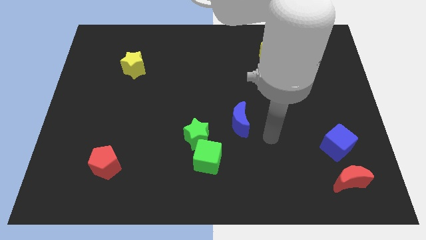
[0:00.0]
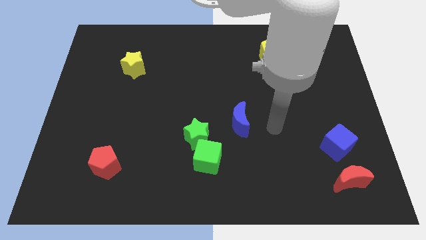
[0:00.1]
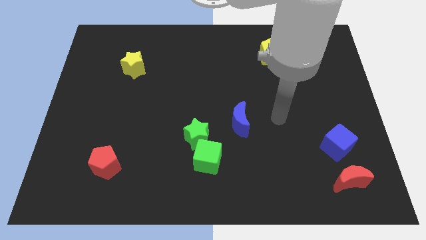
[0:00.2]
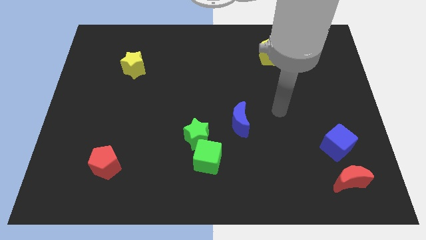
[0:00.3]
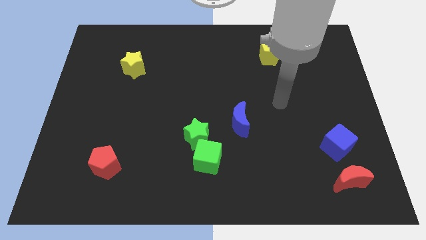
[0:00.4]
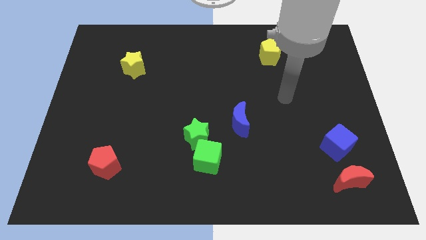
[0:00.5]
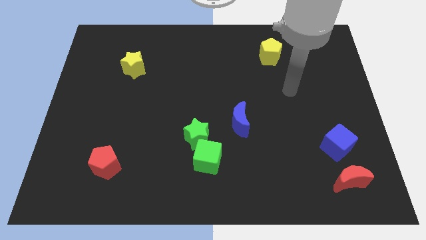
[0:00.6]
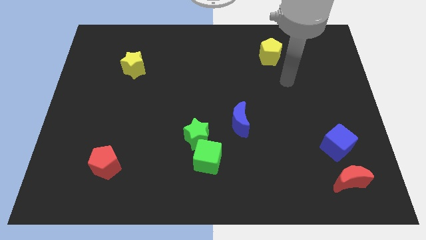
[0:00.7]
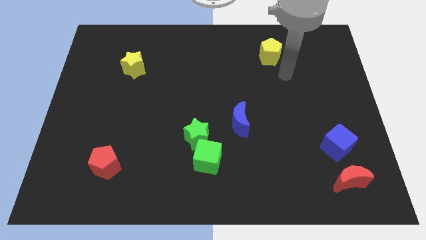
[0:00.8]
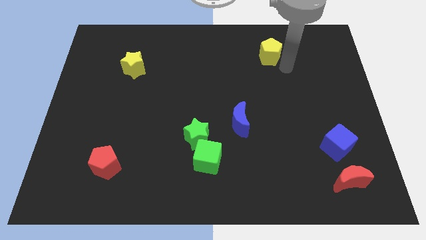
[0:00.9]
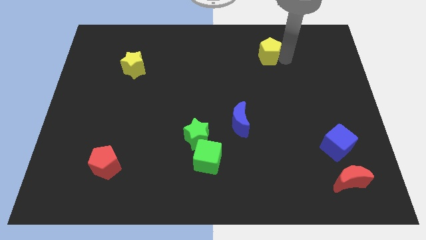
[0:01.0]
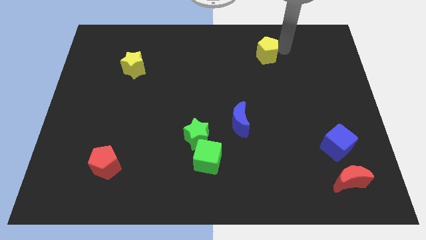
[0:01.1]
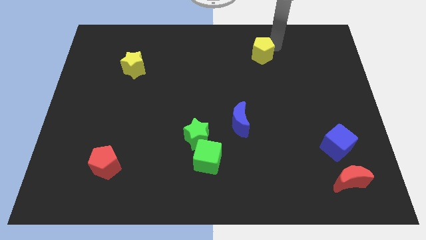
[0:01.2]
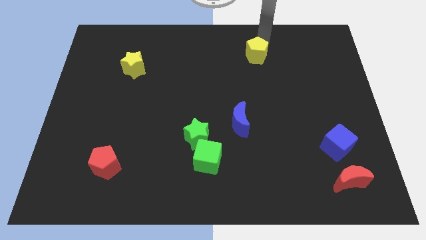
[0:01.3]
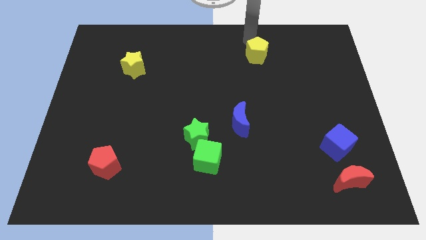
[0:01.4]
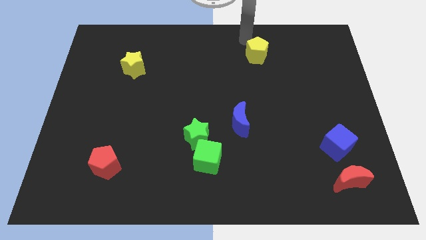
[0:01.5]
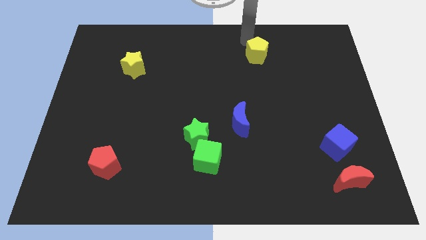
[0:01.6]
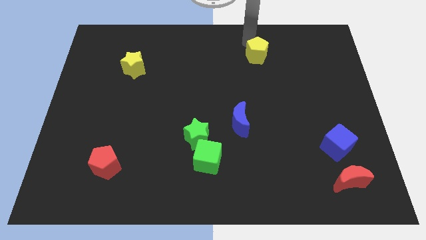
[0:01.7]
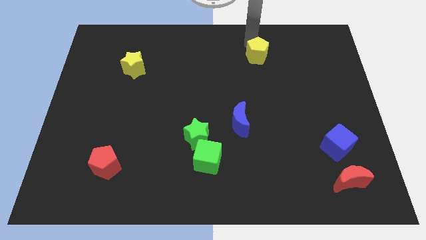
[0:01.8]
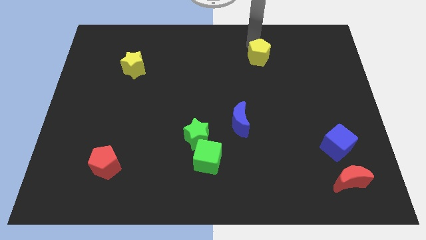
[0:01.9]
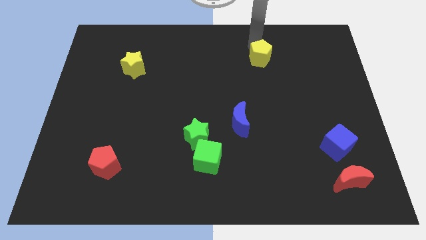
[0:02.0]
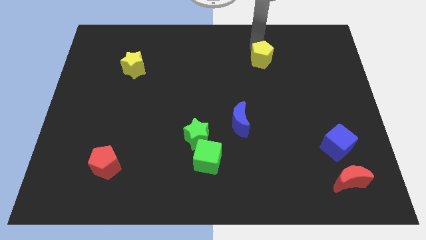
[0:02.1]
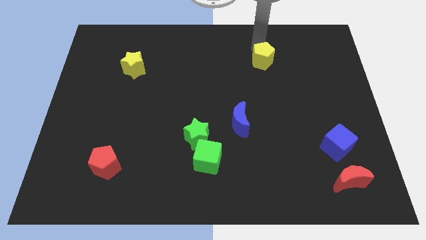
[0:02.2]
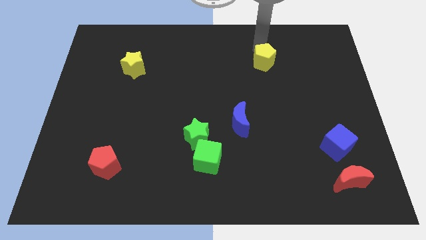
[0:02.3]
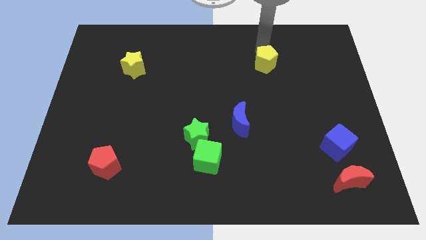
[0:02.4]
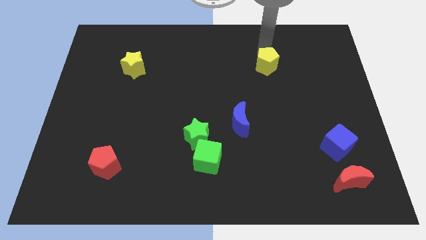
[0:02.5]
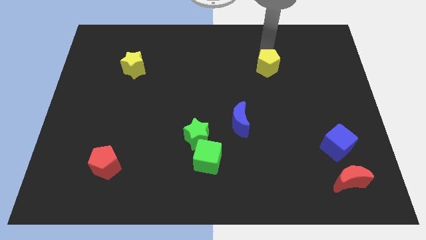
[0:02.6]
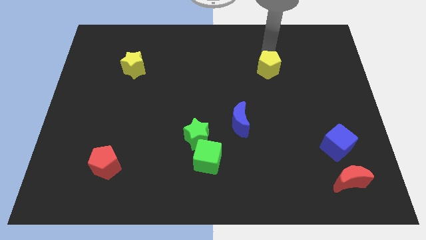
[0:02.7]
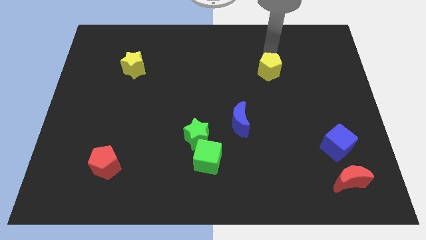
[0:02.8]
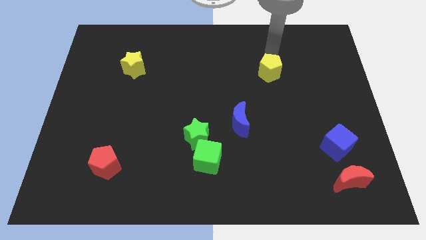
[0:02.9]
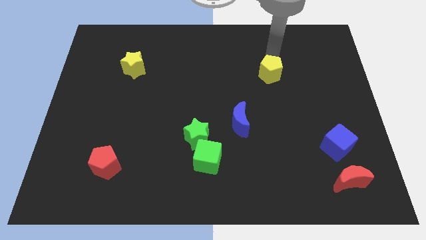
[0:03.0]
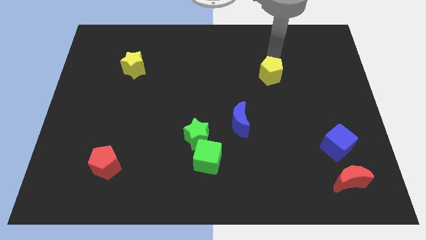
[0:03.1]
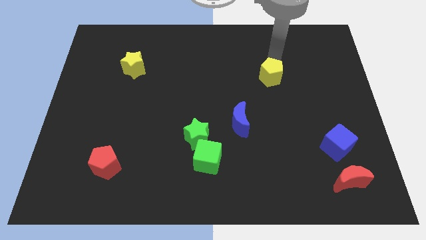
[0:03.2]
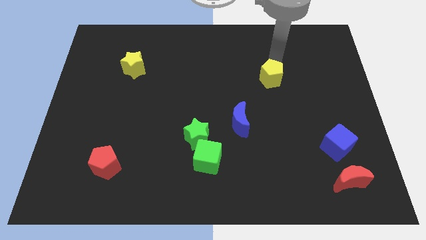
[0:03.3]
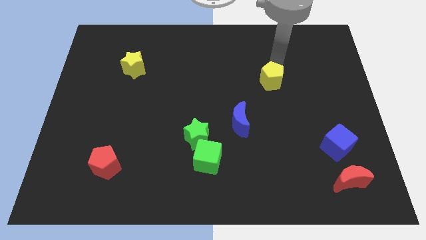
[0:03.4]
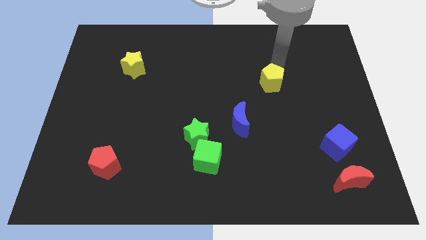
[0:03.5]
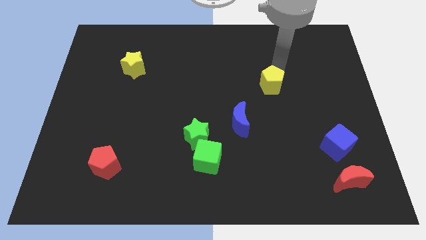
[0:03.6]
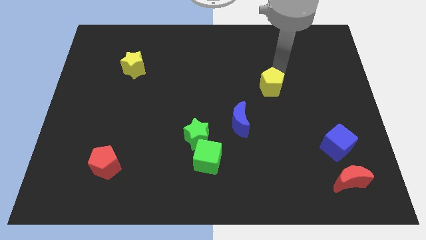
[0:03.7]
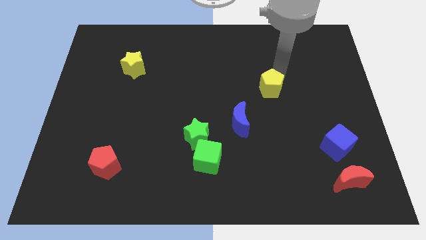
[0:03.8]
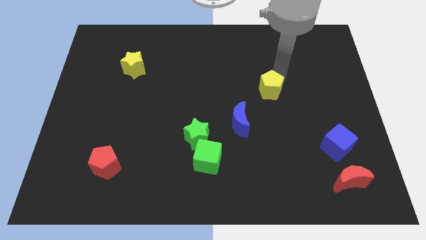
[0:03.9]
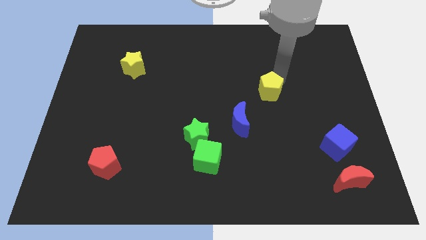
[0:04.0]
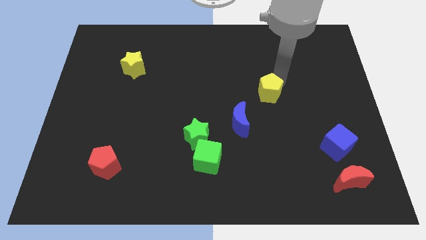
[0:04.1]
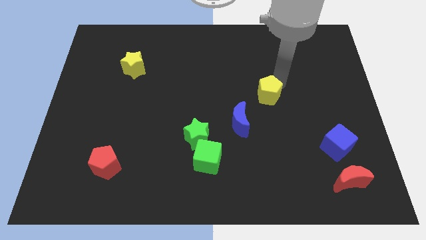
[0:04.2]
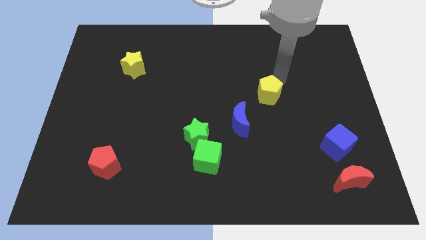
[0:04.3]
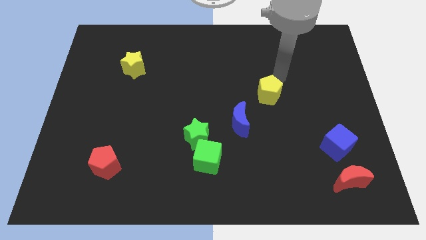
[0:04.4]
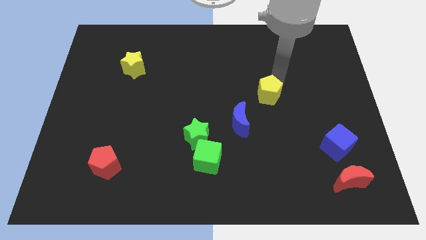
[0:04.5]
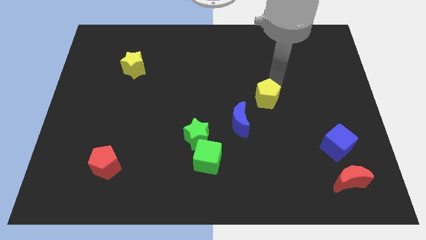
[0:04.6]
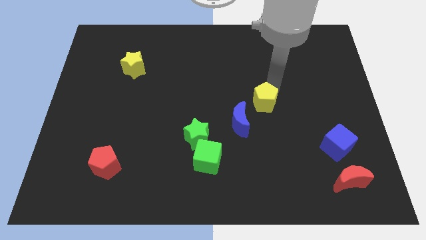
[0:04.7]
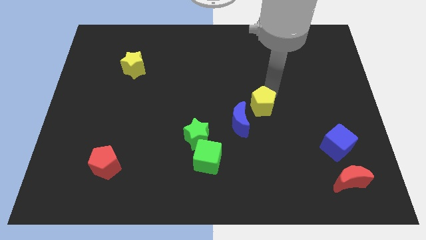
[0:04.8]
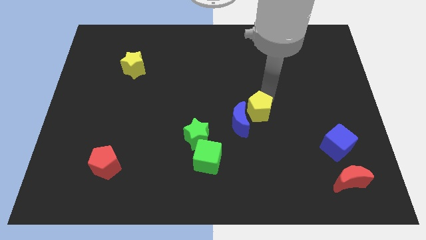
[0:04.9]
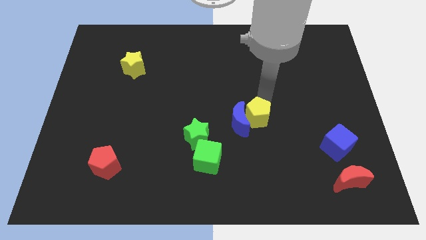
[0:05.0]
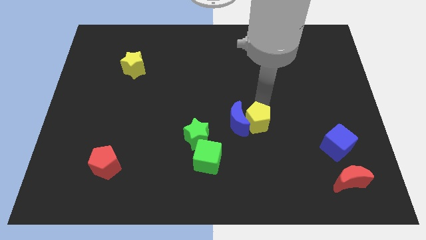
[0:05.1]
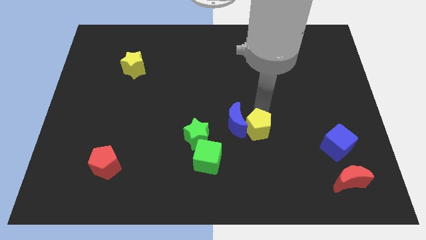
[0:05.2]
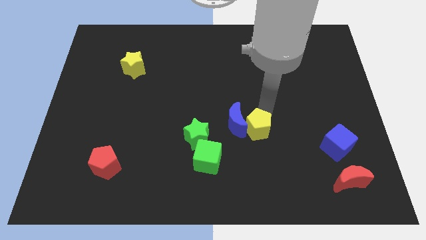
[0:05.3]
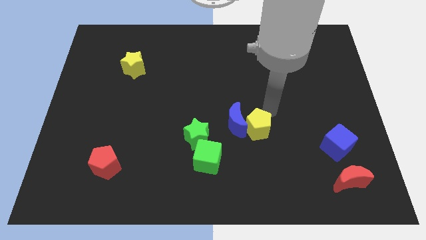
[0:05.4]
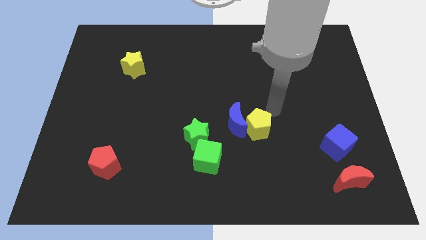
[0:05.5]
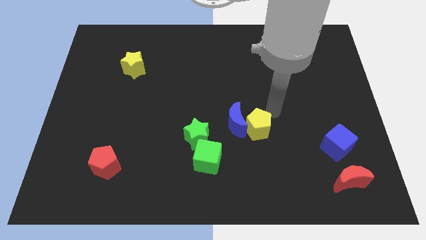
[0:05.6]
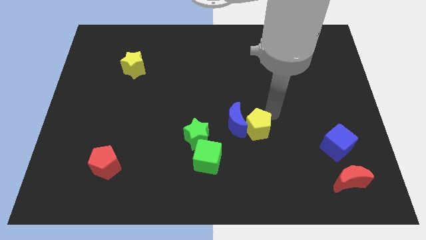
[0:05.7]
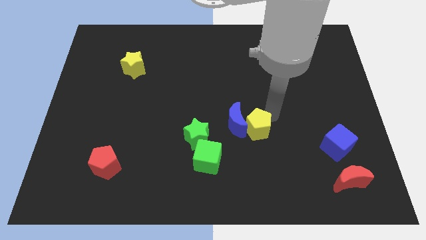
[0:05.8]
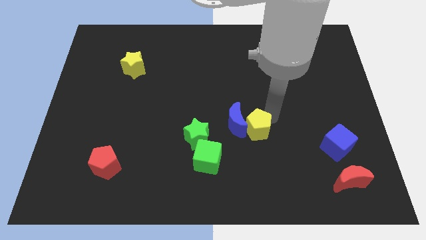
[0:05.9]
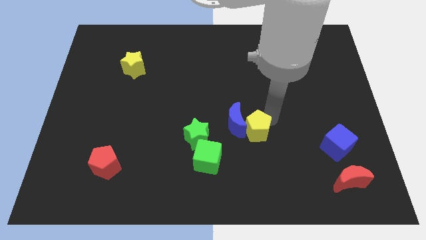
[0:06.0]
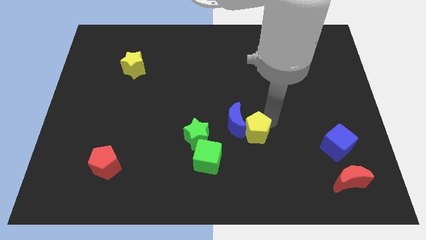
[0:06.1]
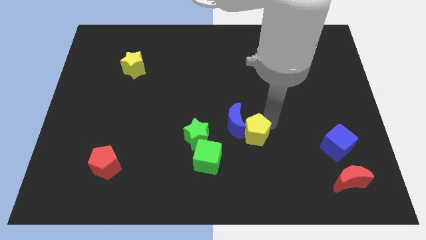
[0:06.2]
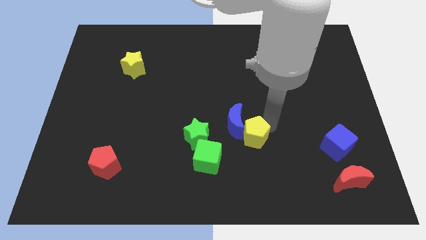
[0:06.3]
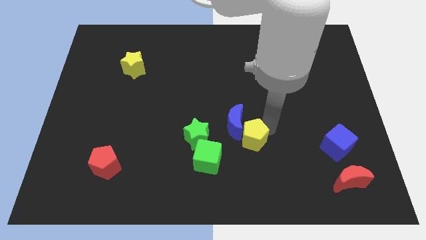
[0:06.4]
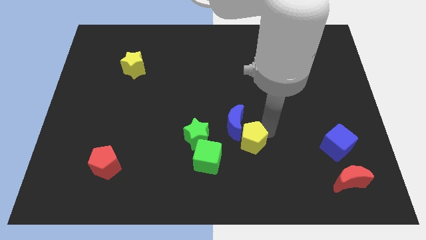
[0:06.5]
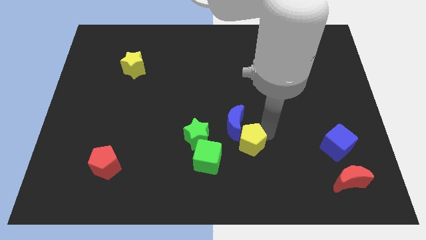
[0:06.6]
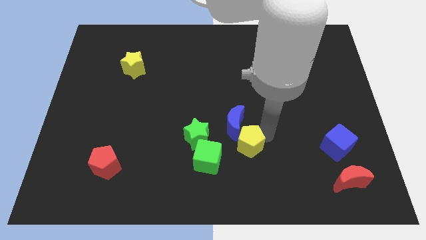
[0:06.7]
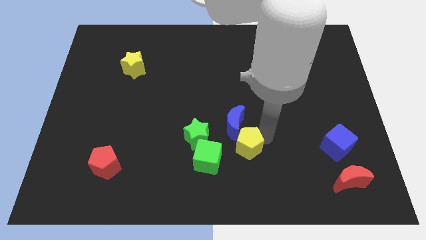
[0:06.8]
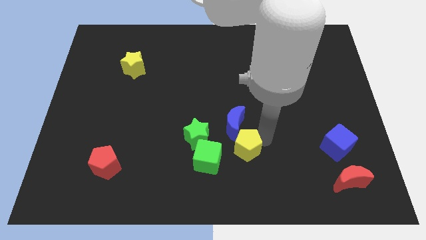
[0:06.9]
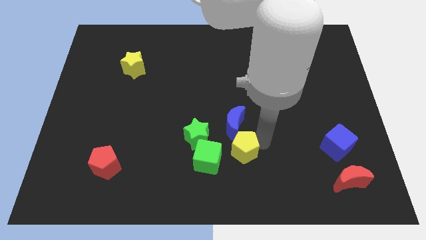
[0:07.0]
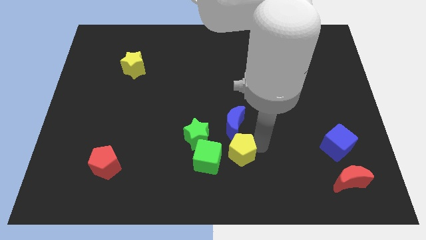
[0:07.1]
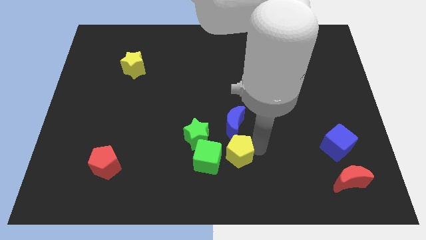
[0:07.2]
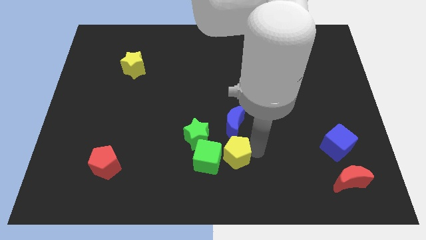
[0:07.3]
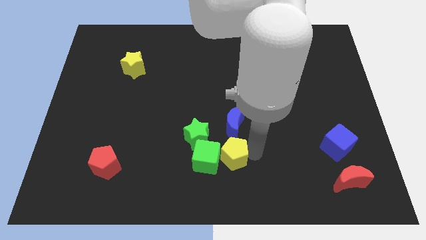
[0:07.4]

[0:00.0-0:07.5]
put the yellow pentagon to the green cube

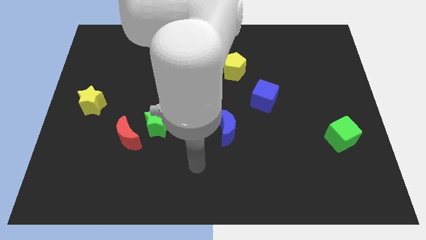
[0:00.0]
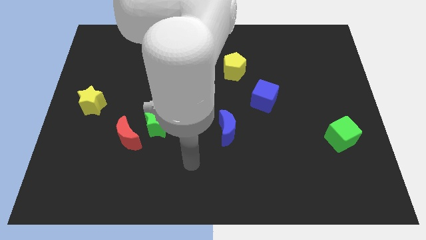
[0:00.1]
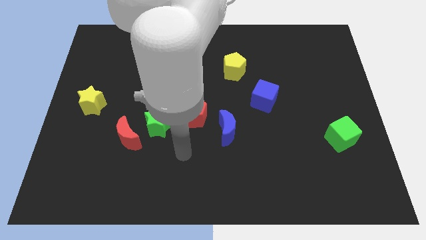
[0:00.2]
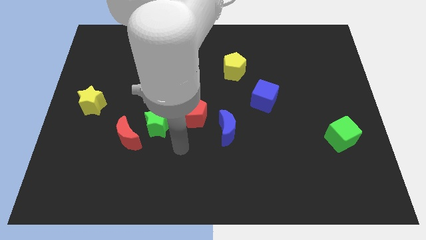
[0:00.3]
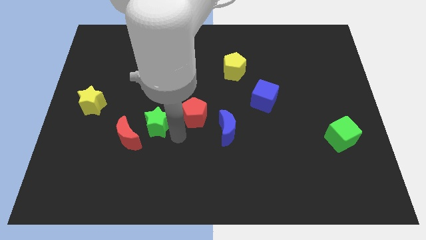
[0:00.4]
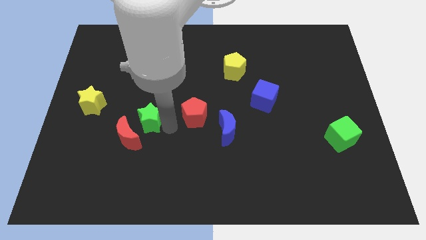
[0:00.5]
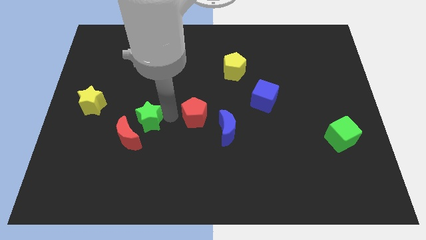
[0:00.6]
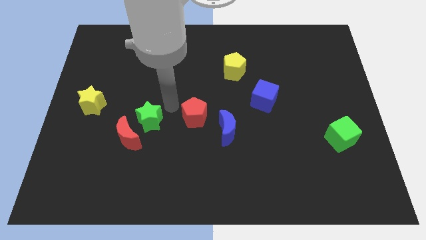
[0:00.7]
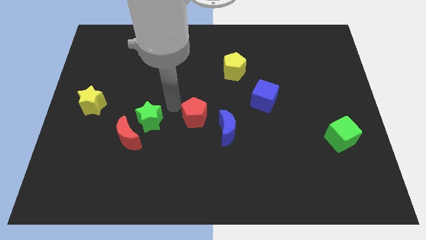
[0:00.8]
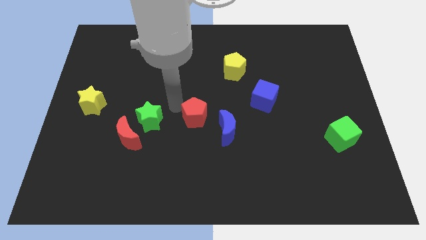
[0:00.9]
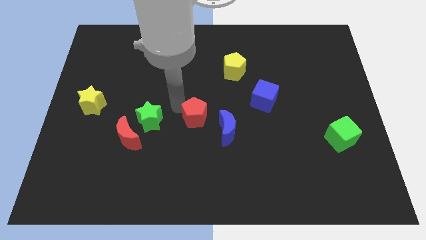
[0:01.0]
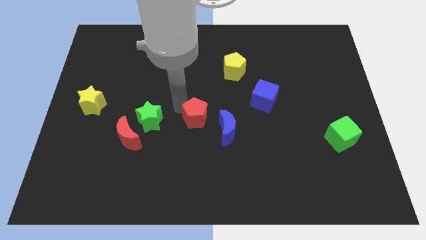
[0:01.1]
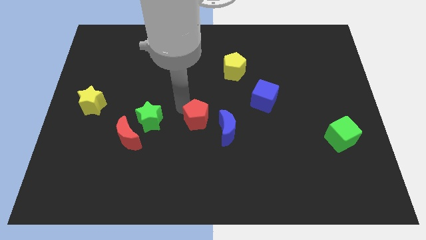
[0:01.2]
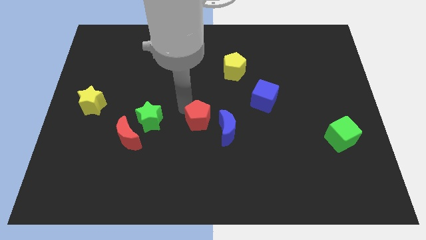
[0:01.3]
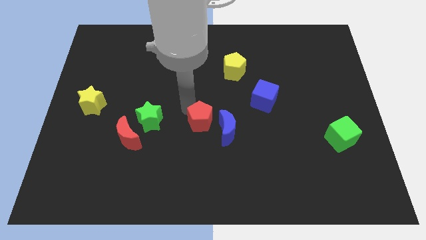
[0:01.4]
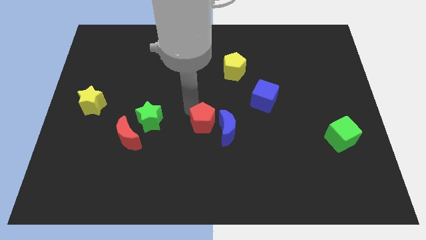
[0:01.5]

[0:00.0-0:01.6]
push the red pentagon towards the blue moon
